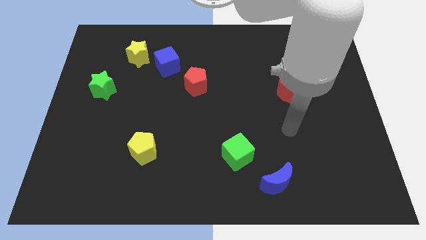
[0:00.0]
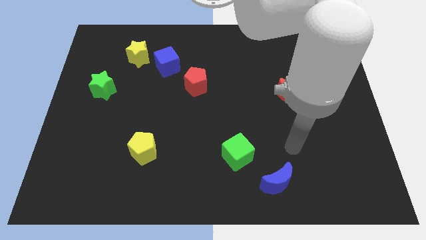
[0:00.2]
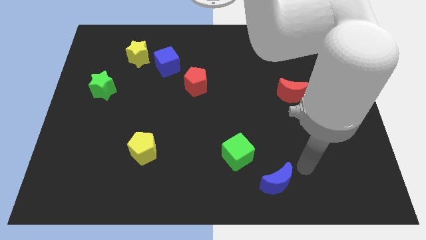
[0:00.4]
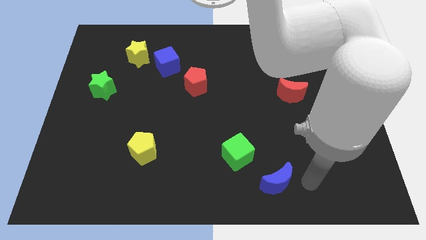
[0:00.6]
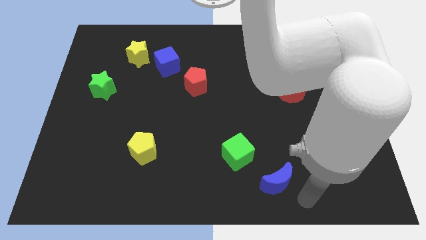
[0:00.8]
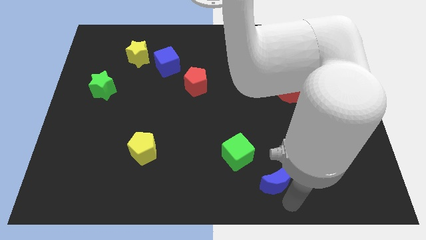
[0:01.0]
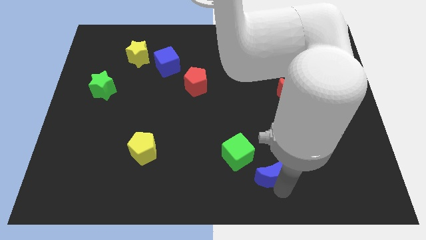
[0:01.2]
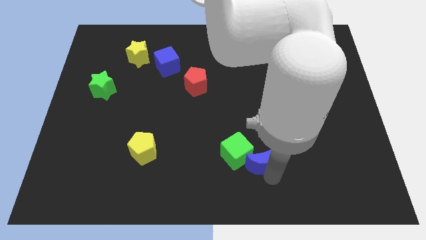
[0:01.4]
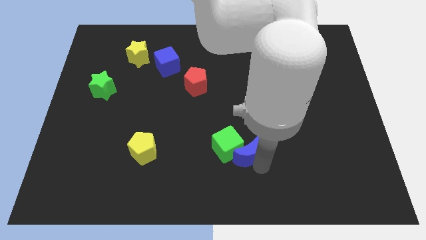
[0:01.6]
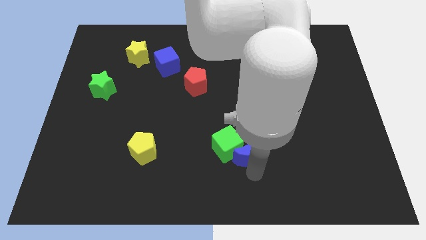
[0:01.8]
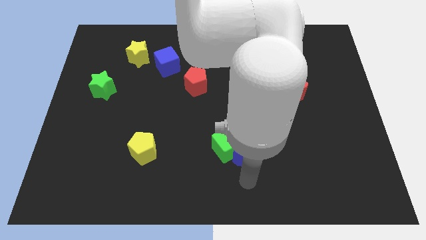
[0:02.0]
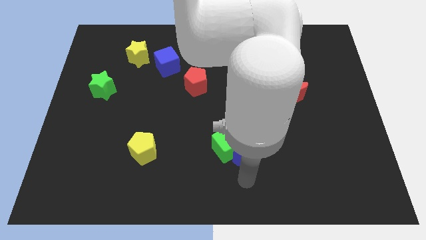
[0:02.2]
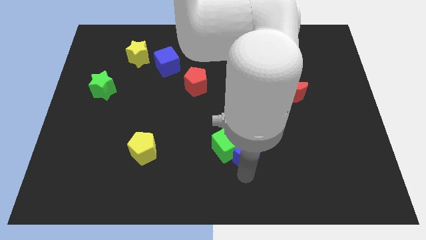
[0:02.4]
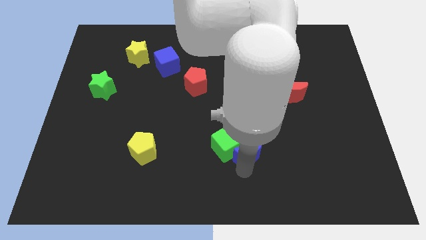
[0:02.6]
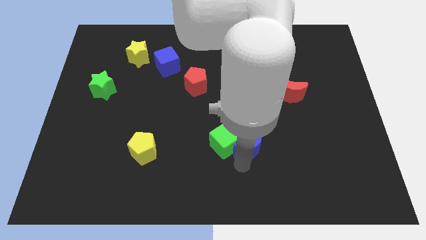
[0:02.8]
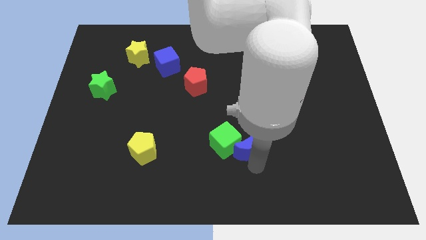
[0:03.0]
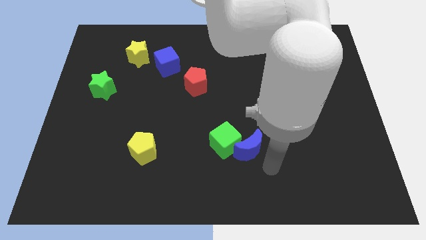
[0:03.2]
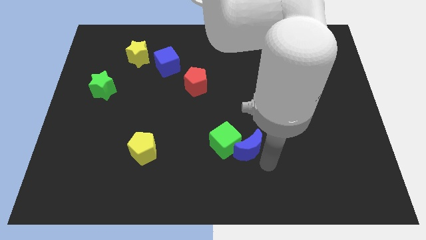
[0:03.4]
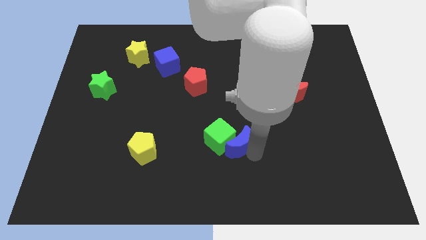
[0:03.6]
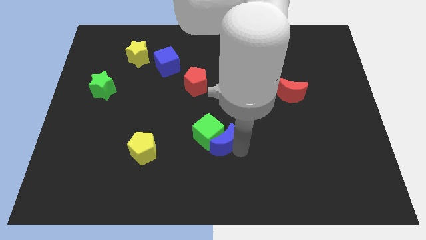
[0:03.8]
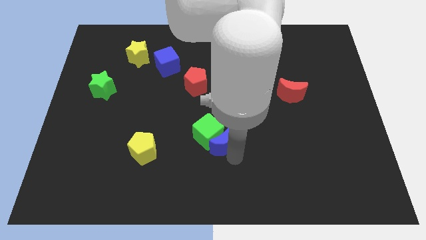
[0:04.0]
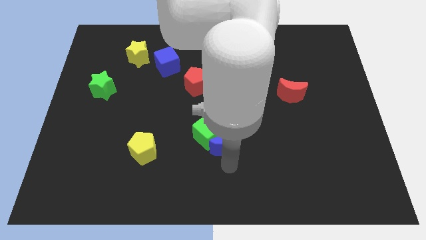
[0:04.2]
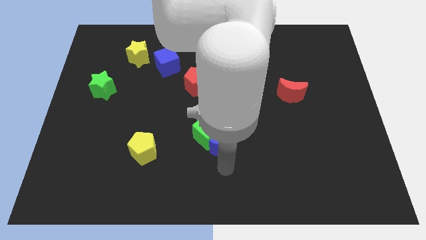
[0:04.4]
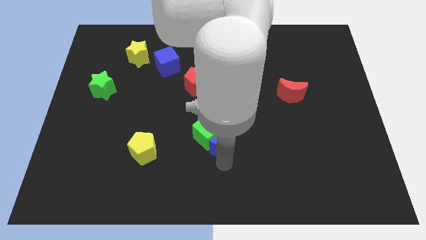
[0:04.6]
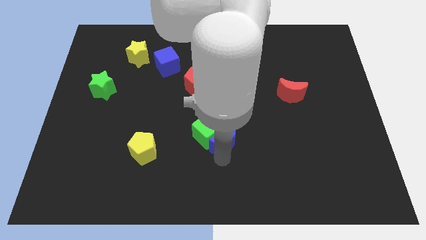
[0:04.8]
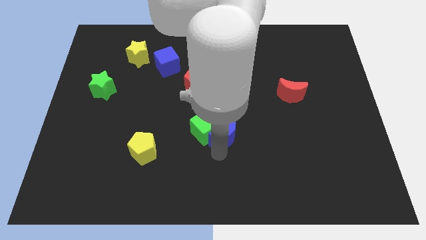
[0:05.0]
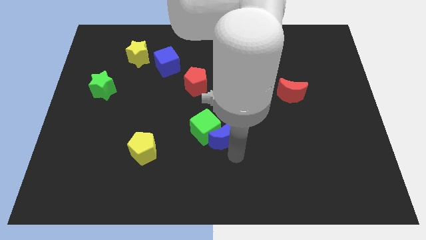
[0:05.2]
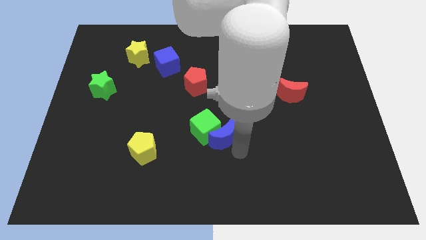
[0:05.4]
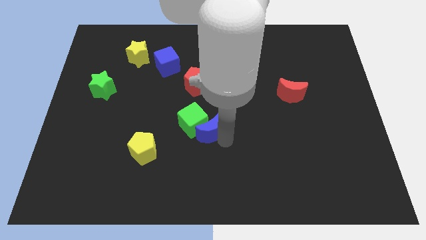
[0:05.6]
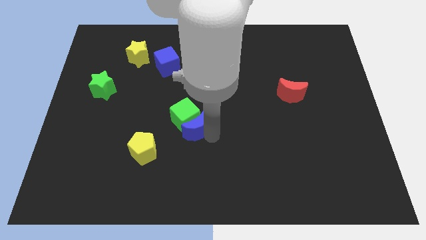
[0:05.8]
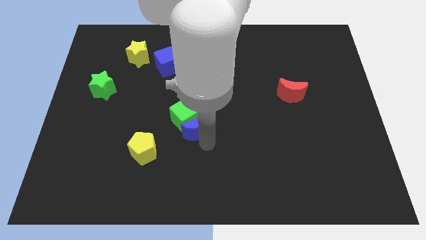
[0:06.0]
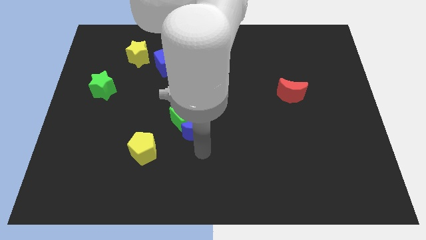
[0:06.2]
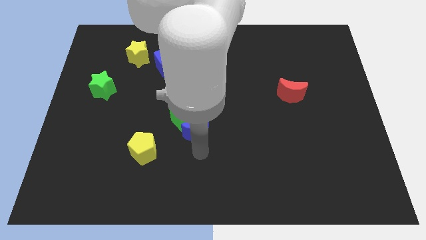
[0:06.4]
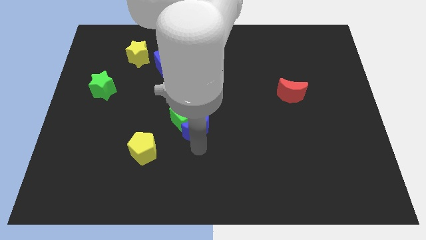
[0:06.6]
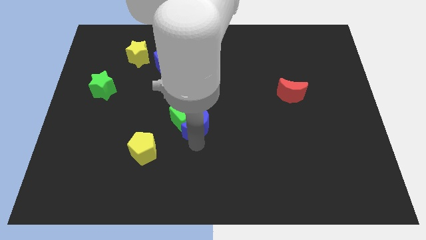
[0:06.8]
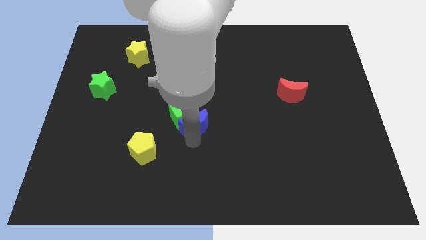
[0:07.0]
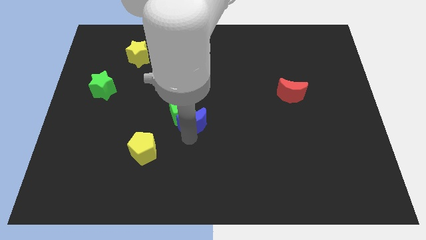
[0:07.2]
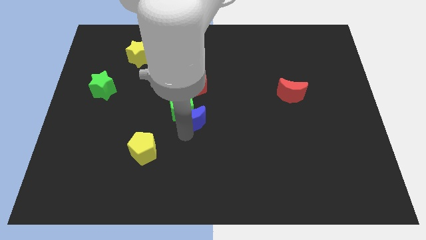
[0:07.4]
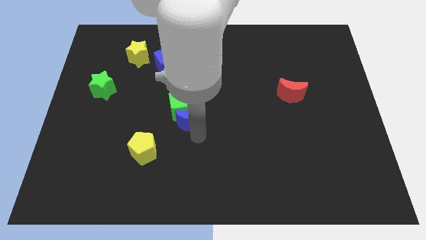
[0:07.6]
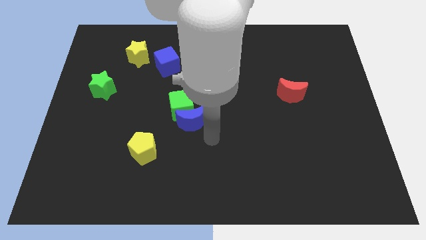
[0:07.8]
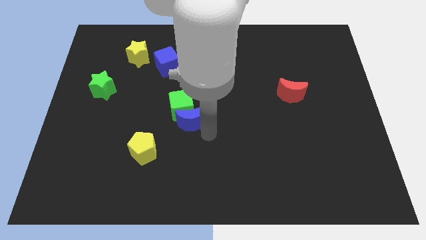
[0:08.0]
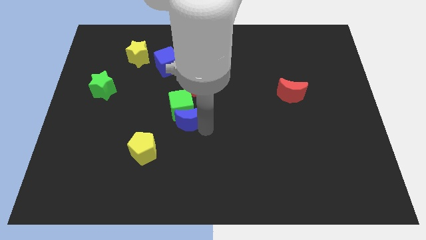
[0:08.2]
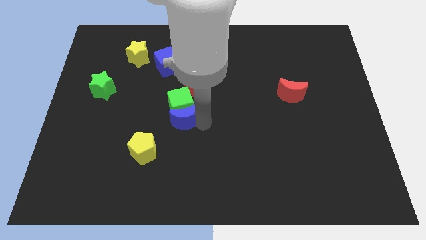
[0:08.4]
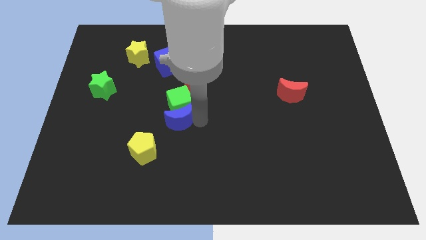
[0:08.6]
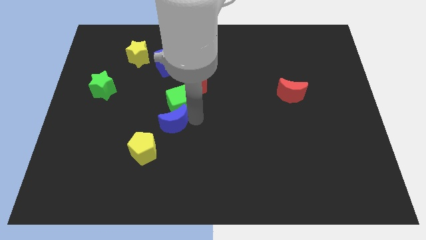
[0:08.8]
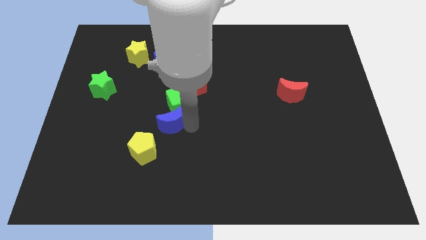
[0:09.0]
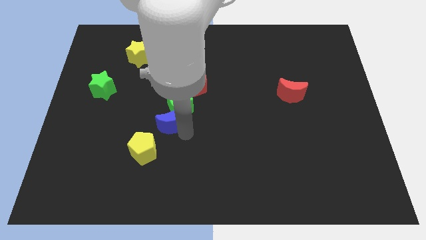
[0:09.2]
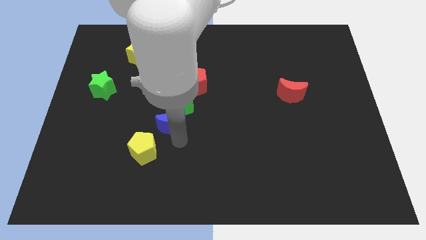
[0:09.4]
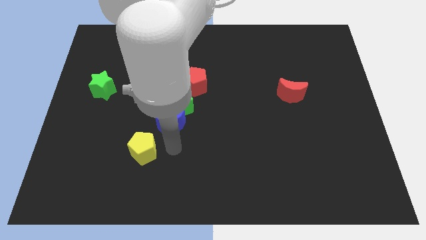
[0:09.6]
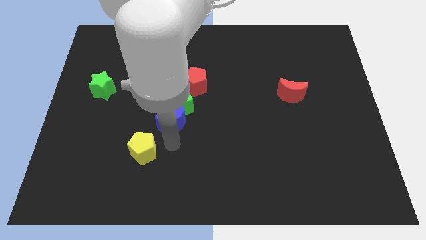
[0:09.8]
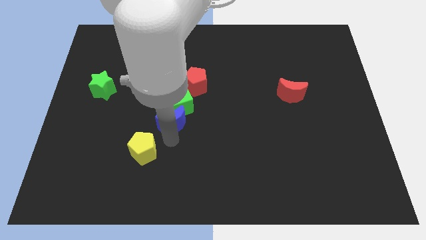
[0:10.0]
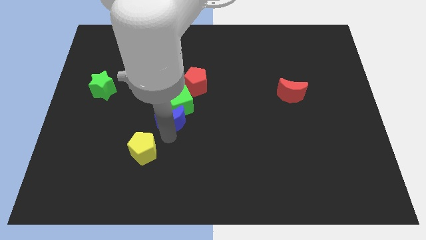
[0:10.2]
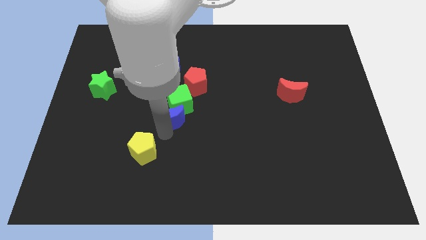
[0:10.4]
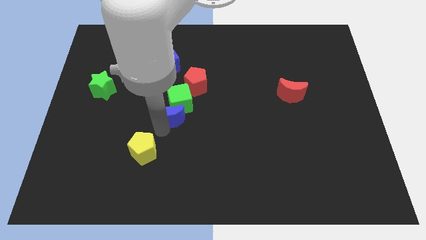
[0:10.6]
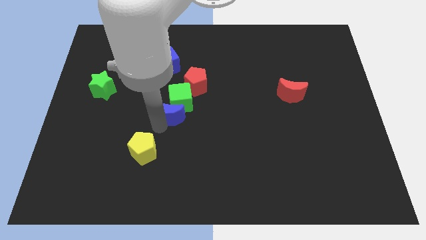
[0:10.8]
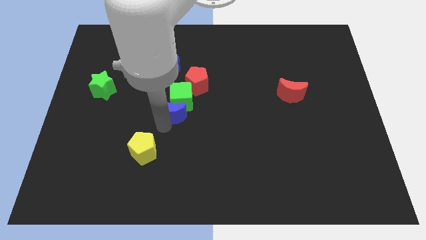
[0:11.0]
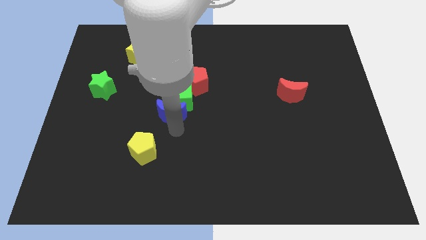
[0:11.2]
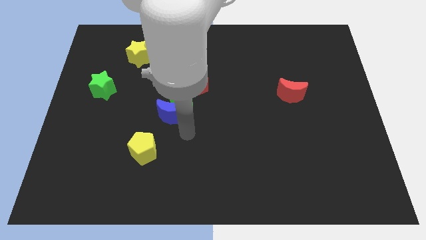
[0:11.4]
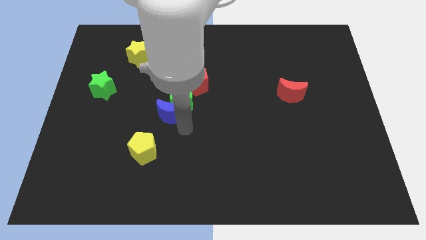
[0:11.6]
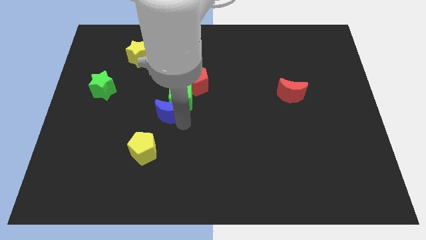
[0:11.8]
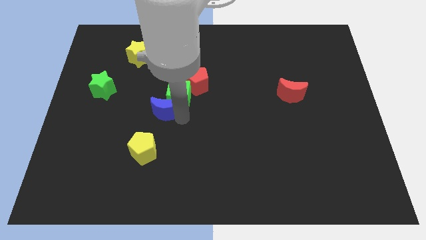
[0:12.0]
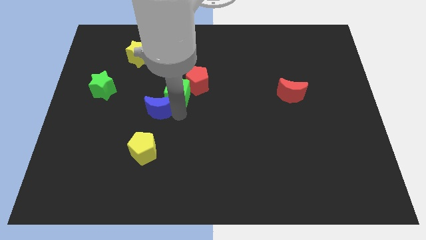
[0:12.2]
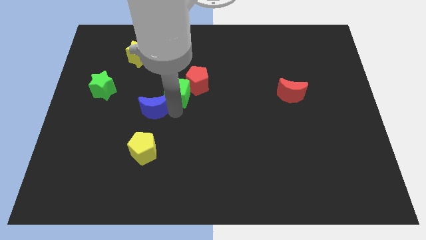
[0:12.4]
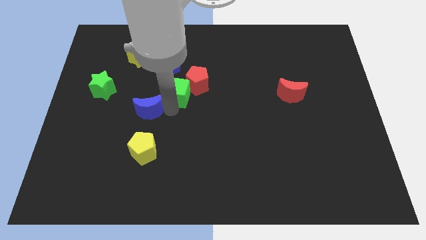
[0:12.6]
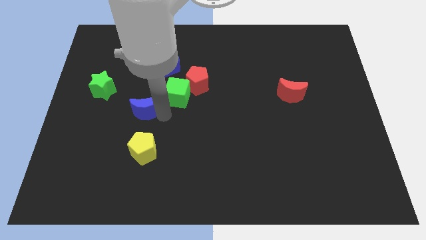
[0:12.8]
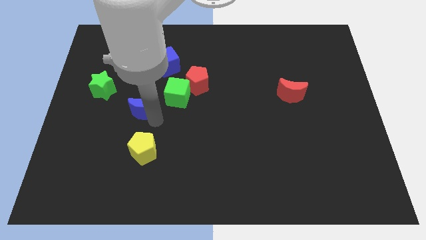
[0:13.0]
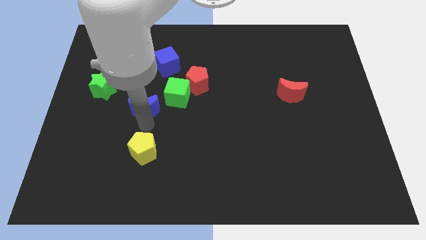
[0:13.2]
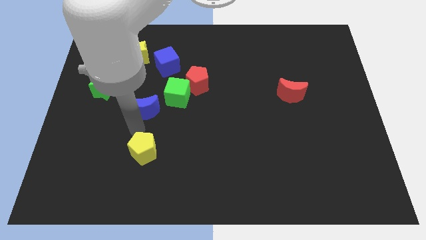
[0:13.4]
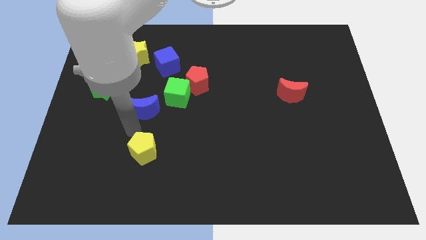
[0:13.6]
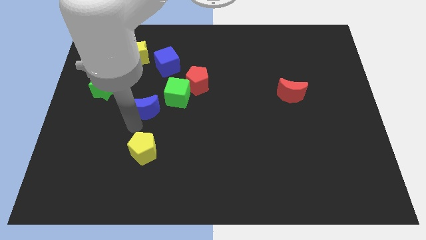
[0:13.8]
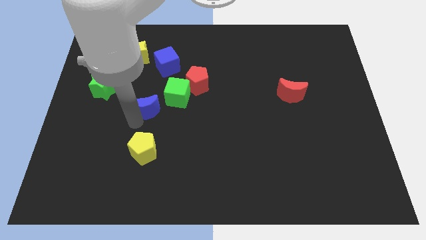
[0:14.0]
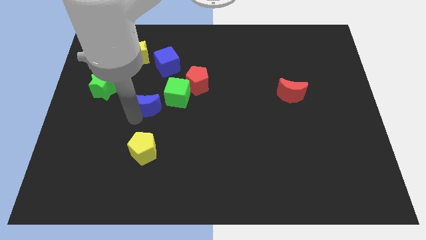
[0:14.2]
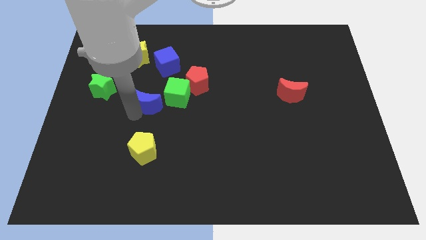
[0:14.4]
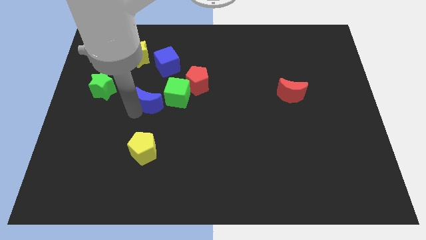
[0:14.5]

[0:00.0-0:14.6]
slide the blue moon to the right of the green star

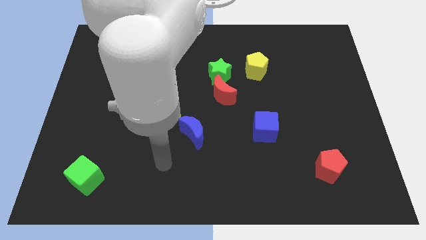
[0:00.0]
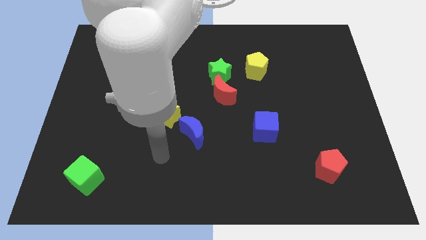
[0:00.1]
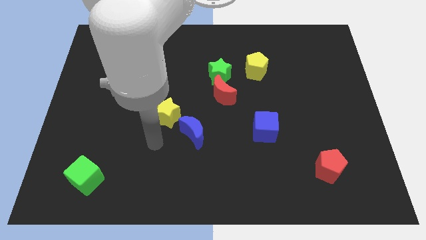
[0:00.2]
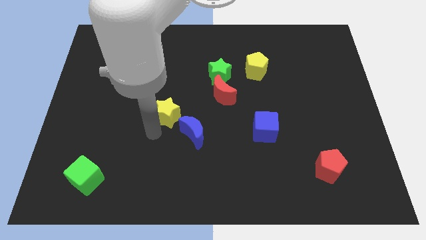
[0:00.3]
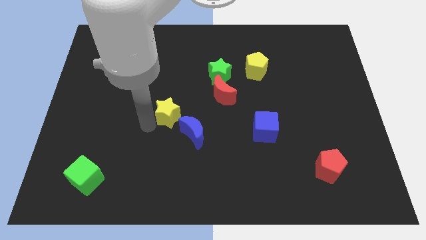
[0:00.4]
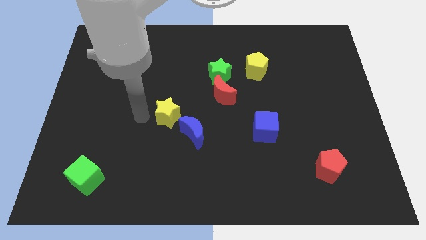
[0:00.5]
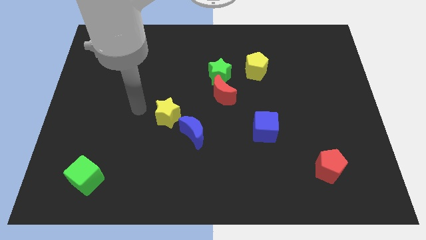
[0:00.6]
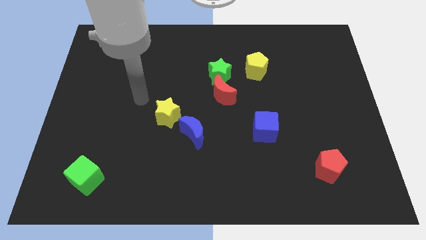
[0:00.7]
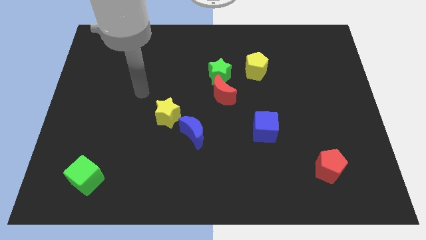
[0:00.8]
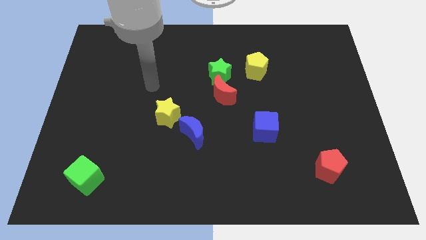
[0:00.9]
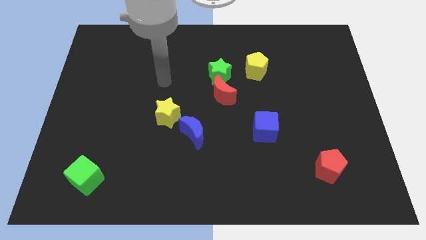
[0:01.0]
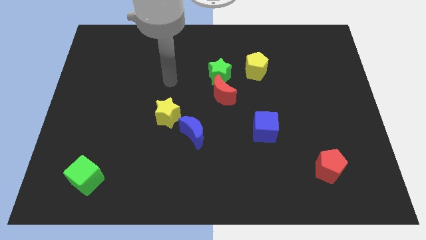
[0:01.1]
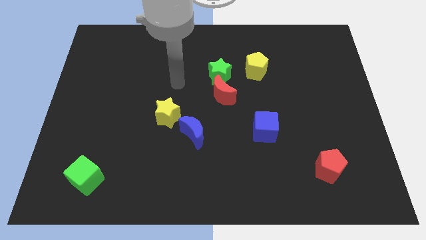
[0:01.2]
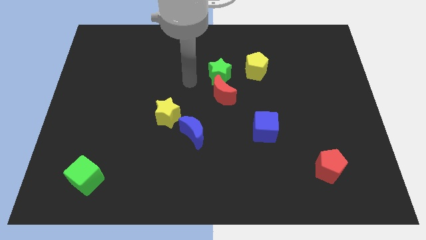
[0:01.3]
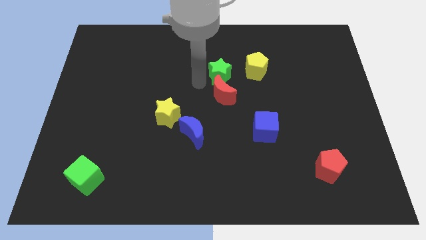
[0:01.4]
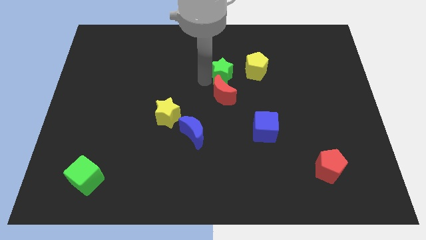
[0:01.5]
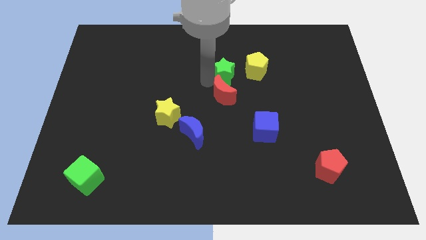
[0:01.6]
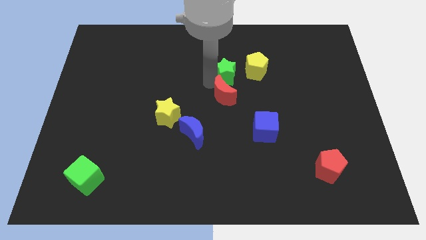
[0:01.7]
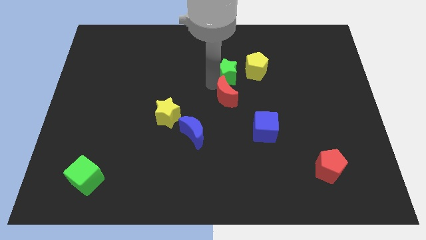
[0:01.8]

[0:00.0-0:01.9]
put the red moon to the top left side of the blue cube
